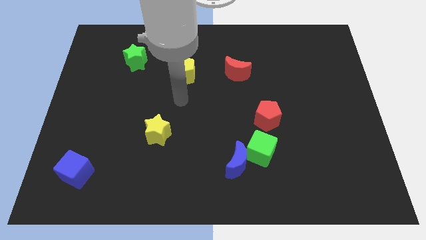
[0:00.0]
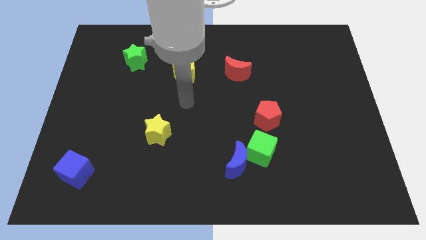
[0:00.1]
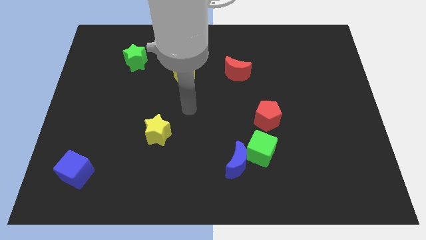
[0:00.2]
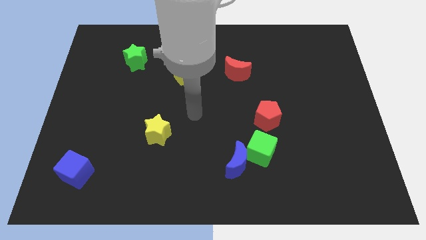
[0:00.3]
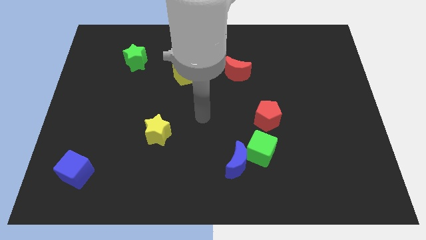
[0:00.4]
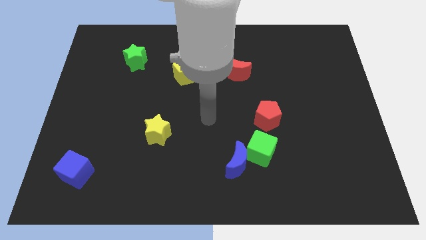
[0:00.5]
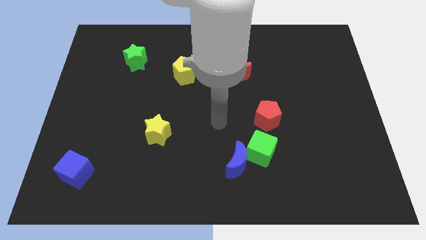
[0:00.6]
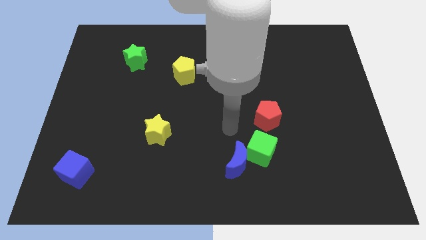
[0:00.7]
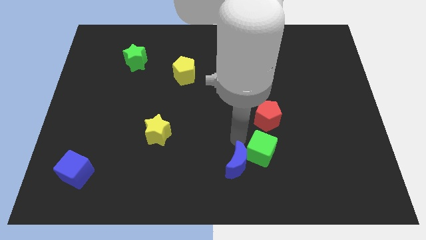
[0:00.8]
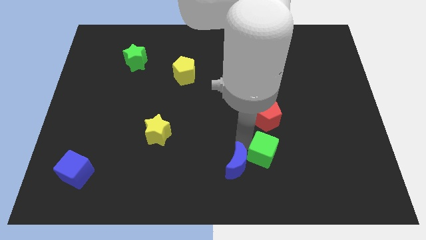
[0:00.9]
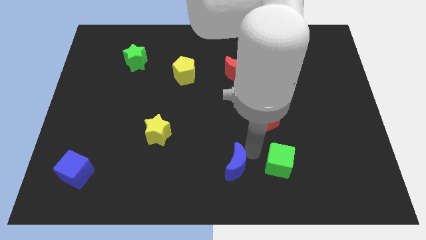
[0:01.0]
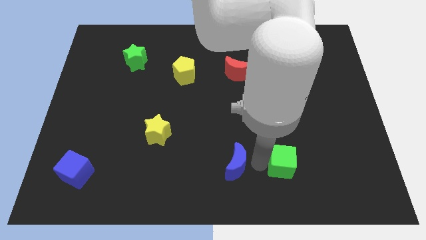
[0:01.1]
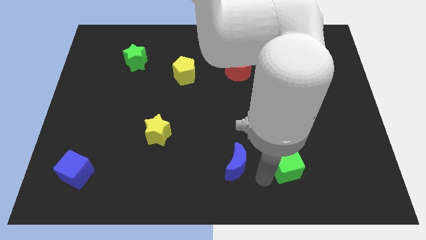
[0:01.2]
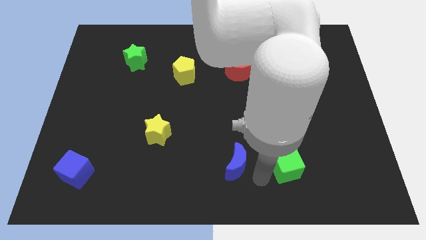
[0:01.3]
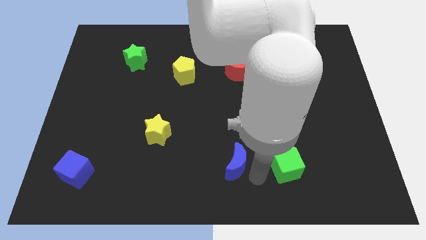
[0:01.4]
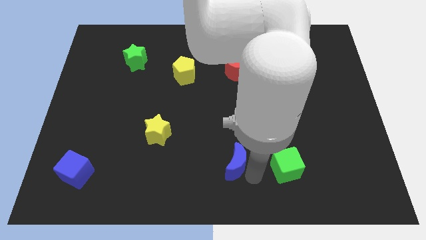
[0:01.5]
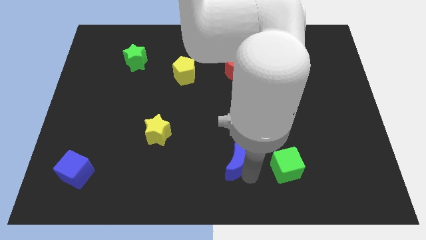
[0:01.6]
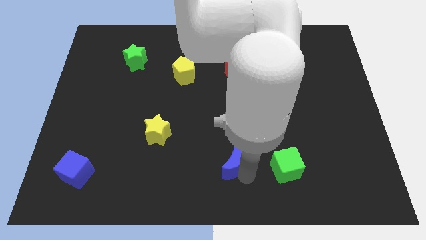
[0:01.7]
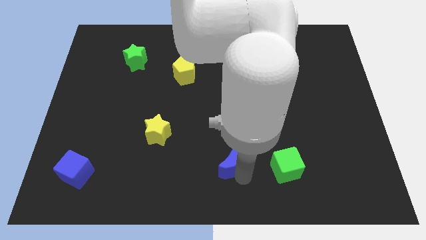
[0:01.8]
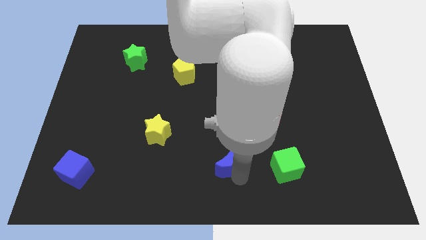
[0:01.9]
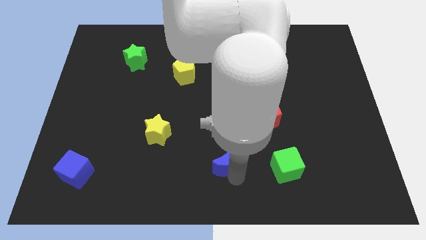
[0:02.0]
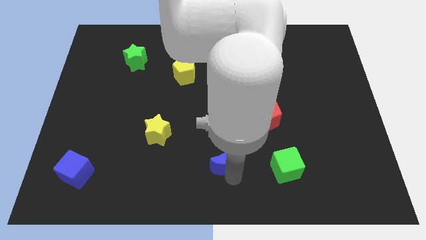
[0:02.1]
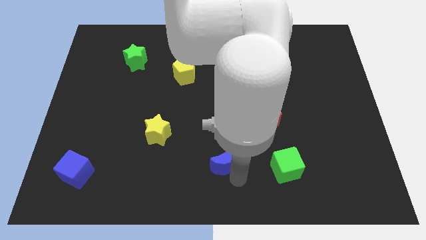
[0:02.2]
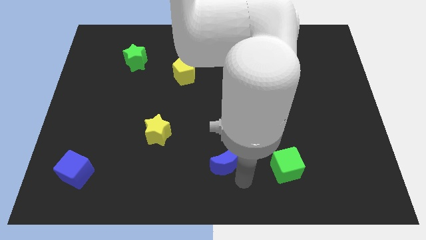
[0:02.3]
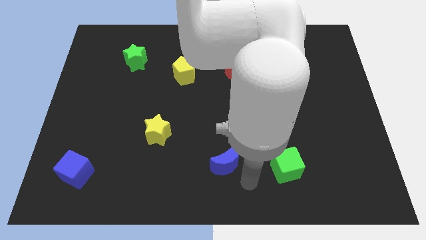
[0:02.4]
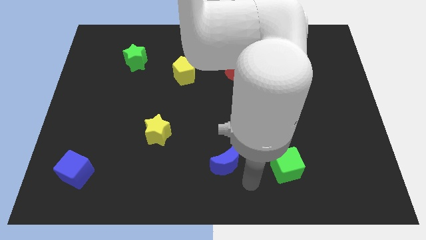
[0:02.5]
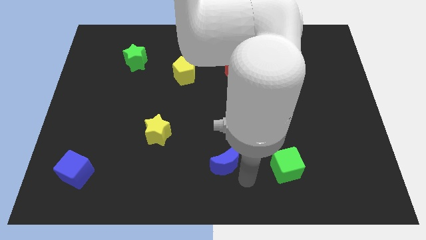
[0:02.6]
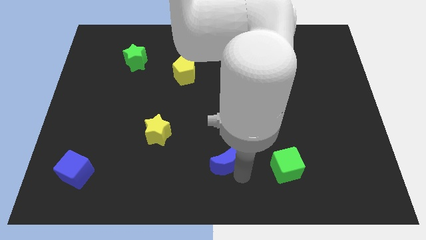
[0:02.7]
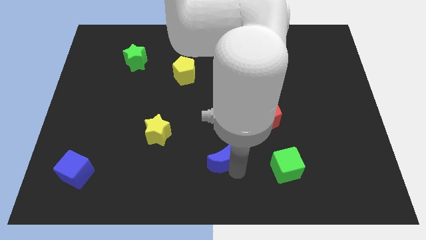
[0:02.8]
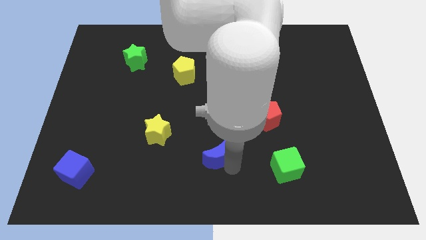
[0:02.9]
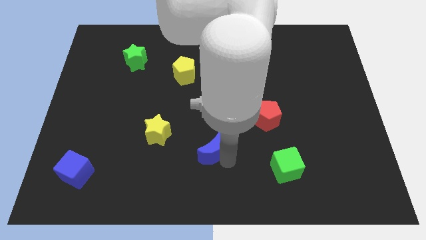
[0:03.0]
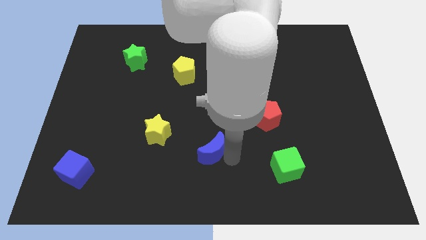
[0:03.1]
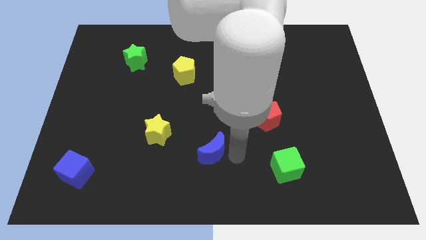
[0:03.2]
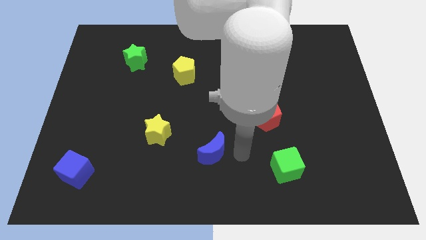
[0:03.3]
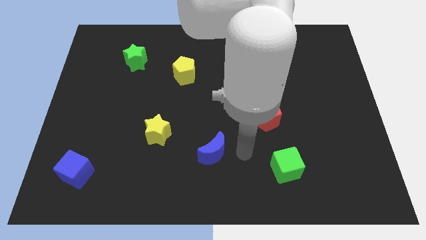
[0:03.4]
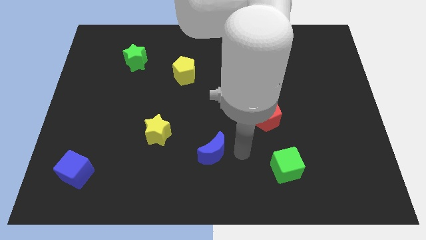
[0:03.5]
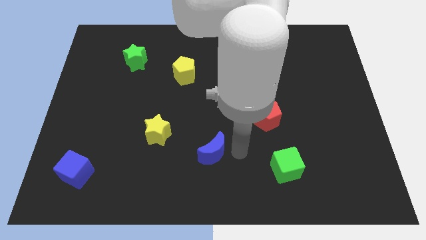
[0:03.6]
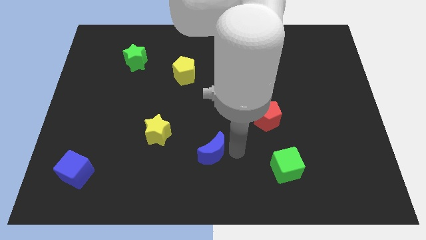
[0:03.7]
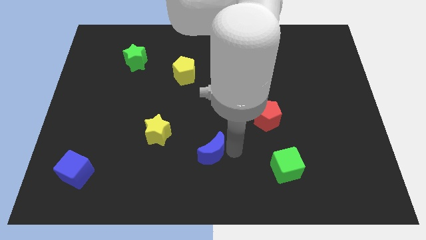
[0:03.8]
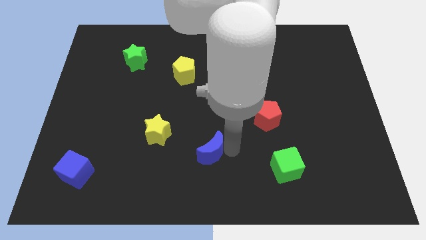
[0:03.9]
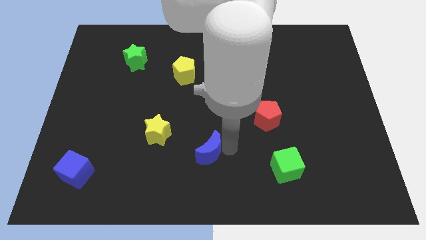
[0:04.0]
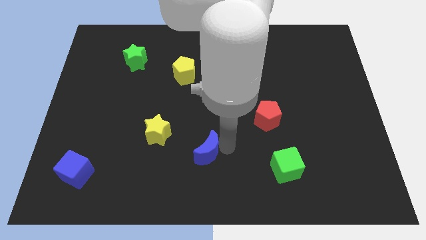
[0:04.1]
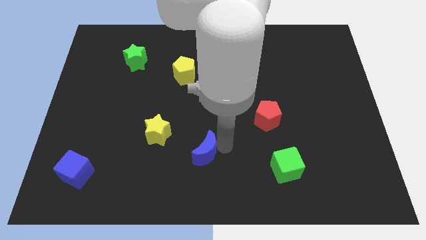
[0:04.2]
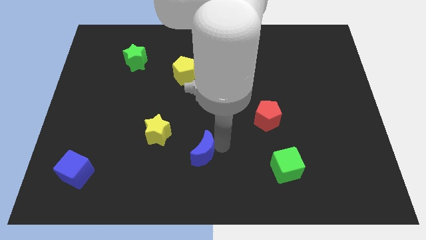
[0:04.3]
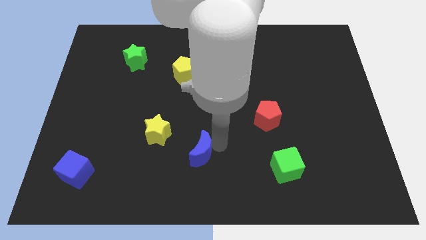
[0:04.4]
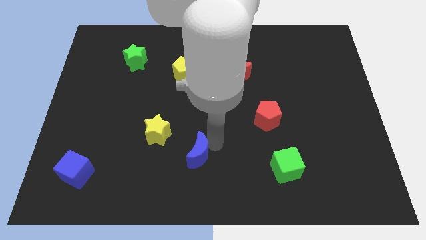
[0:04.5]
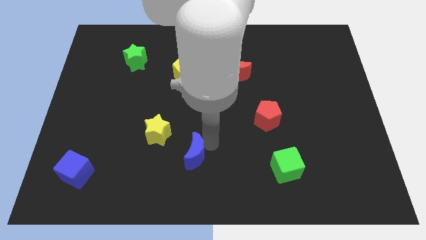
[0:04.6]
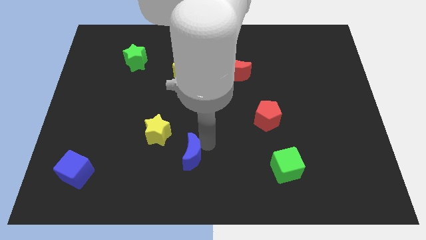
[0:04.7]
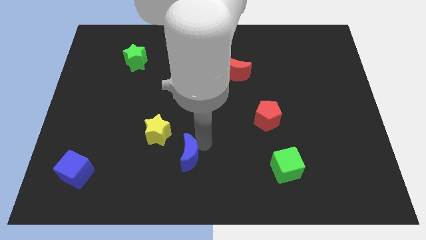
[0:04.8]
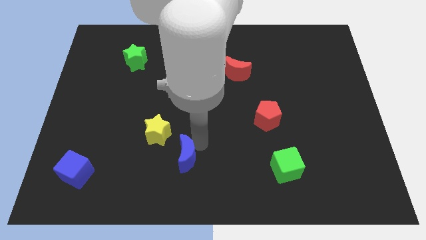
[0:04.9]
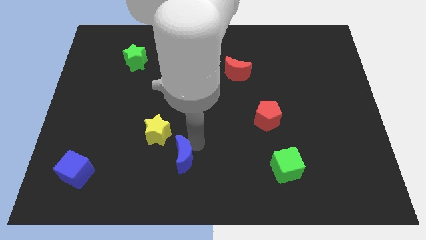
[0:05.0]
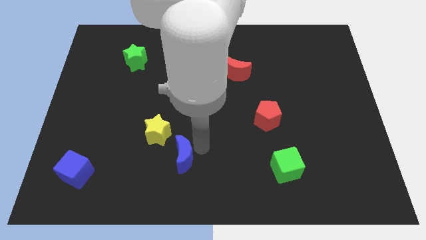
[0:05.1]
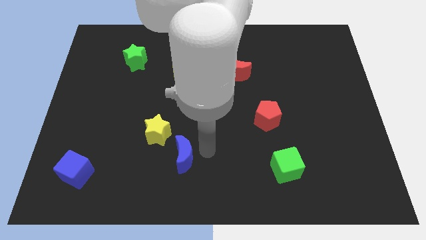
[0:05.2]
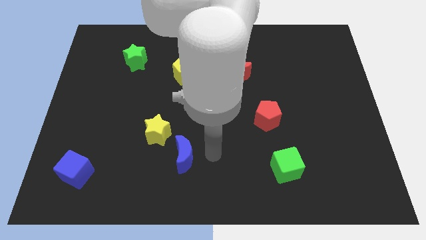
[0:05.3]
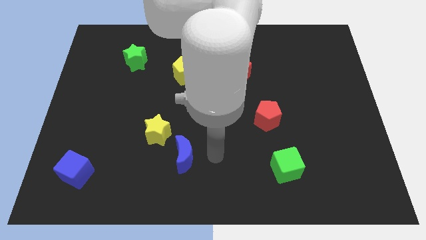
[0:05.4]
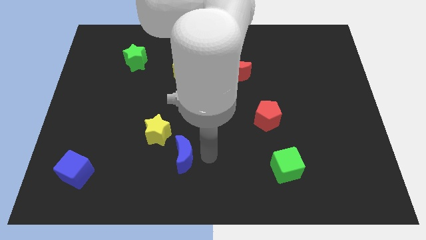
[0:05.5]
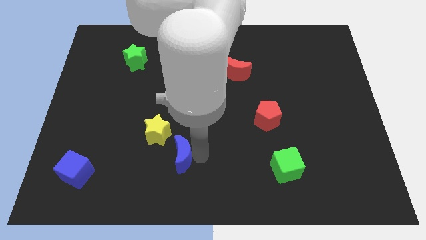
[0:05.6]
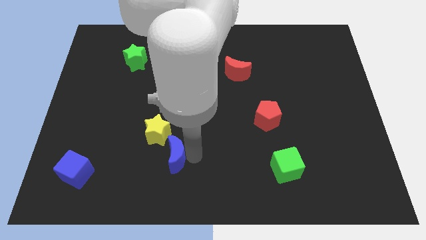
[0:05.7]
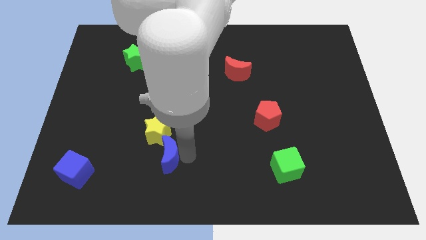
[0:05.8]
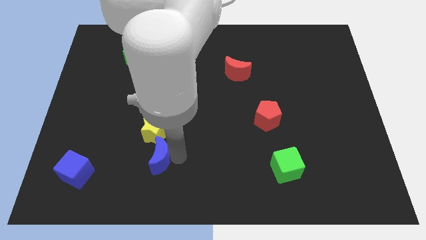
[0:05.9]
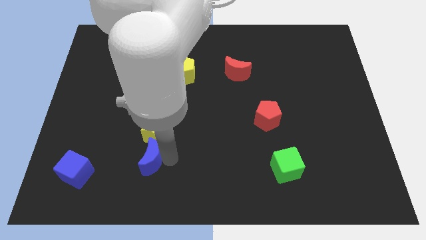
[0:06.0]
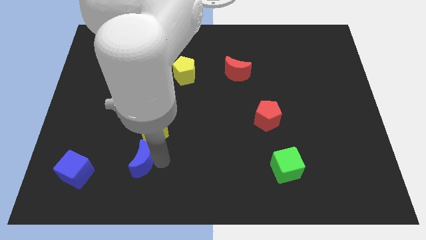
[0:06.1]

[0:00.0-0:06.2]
slide the blue moon to the bottom left of the yellow star

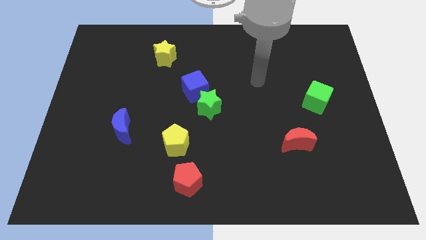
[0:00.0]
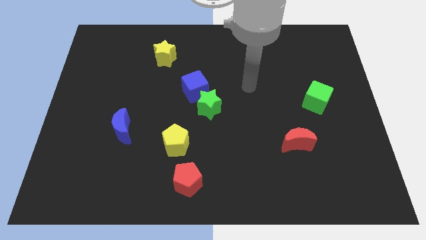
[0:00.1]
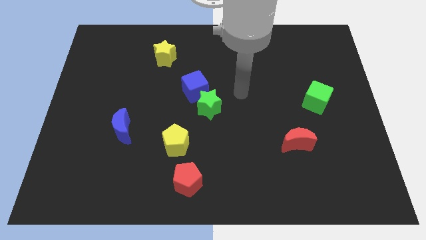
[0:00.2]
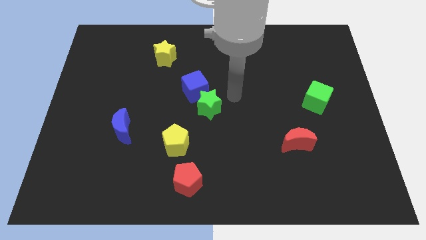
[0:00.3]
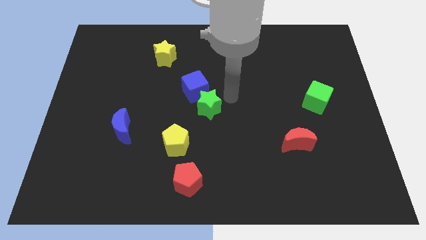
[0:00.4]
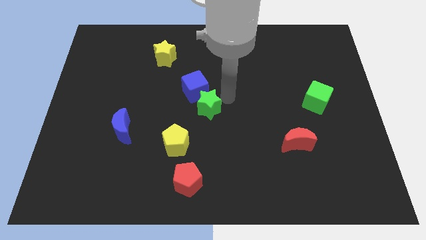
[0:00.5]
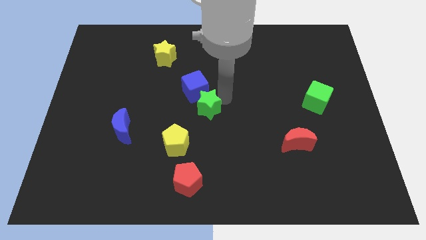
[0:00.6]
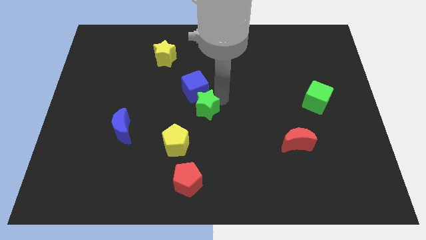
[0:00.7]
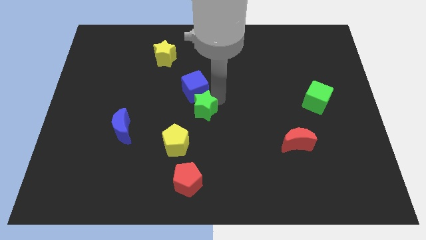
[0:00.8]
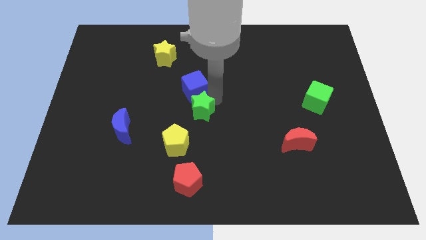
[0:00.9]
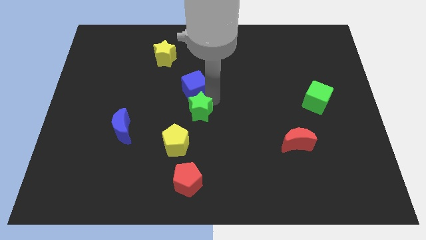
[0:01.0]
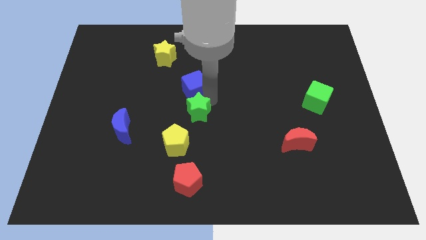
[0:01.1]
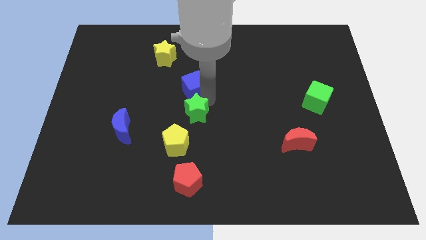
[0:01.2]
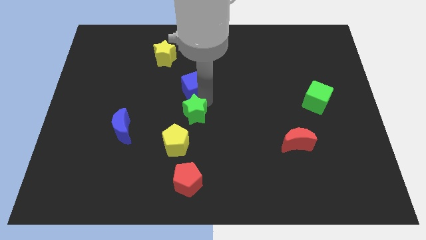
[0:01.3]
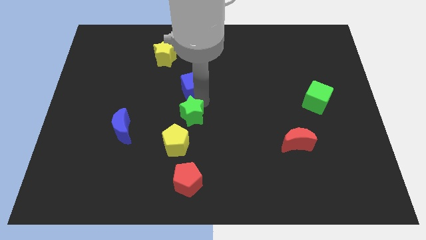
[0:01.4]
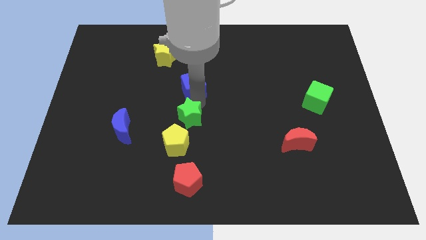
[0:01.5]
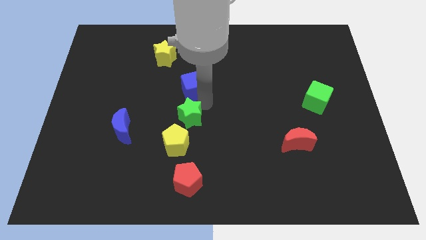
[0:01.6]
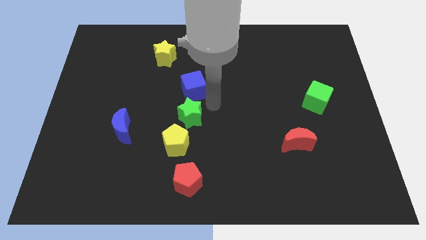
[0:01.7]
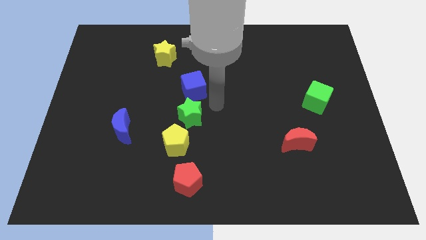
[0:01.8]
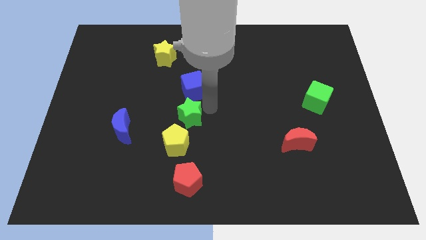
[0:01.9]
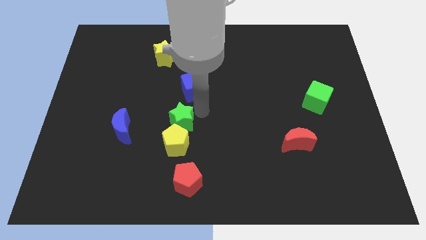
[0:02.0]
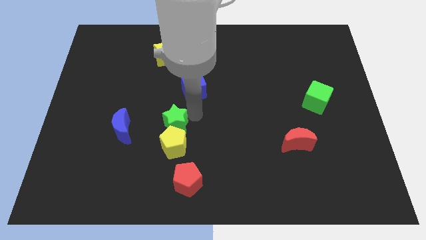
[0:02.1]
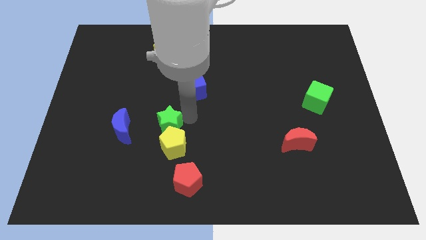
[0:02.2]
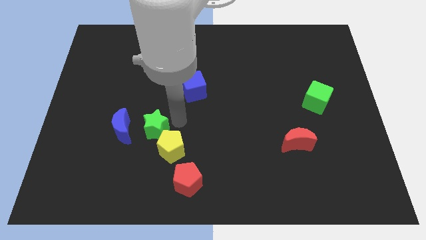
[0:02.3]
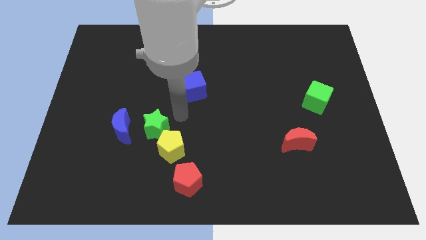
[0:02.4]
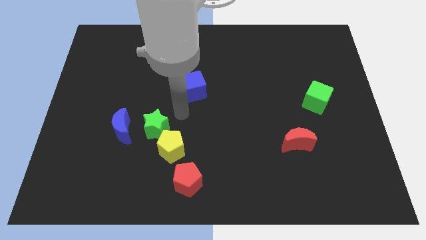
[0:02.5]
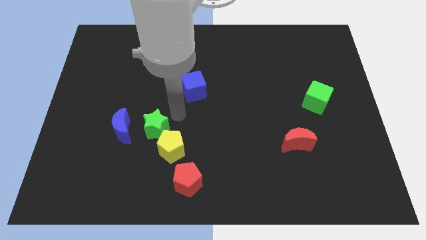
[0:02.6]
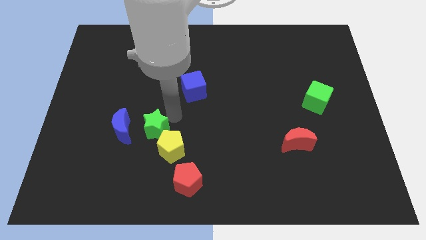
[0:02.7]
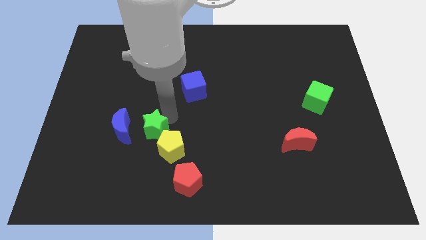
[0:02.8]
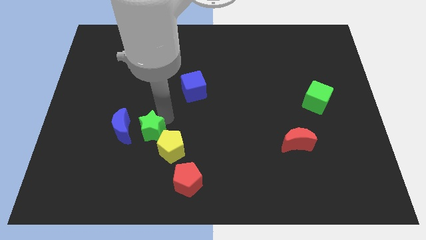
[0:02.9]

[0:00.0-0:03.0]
move the green star left of the yellow pentagon
